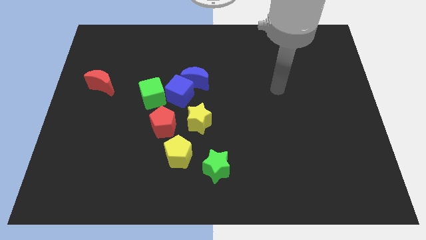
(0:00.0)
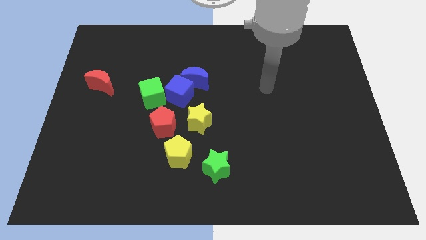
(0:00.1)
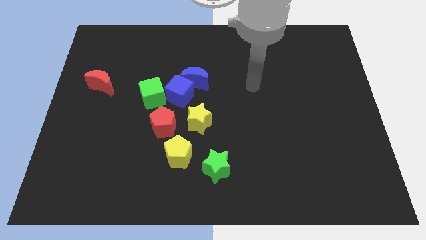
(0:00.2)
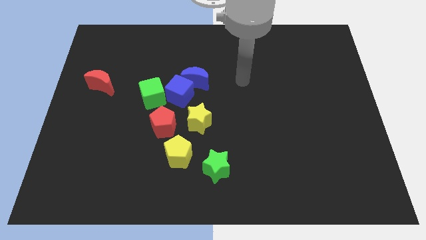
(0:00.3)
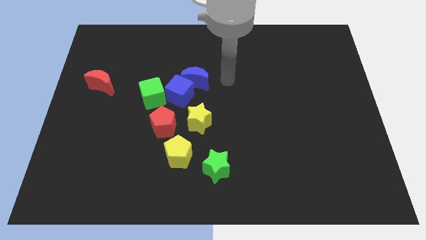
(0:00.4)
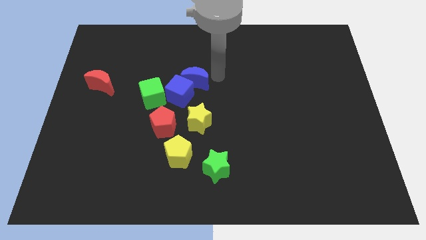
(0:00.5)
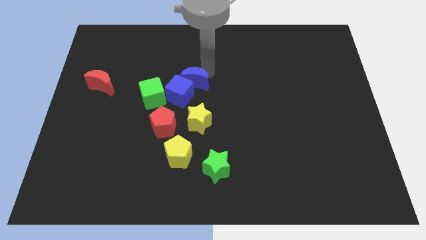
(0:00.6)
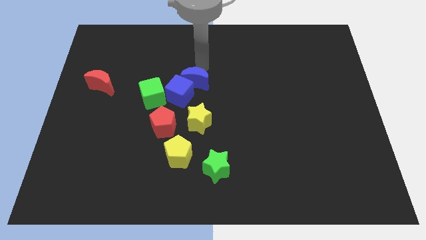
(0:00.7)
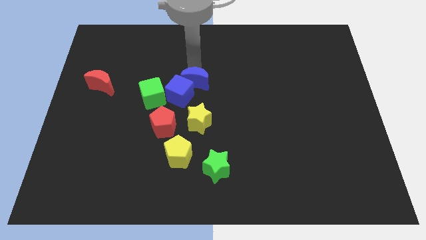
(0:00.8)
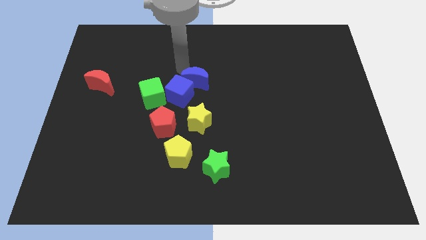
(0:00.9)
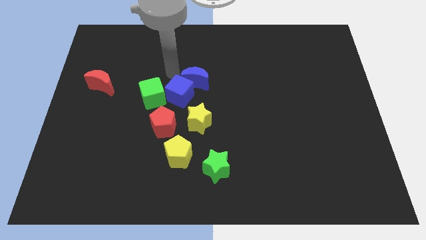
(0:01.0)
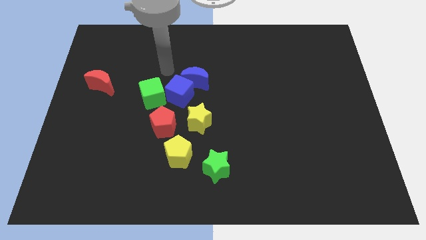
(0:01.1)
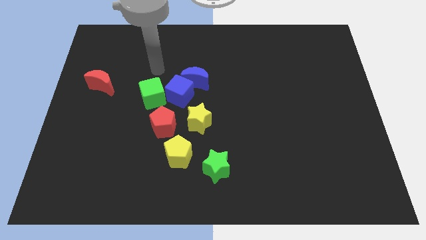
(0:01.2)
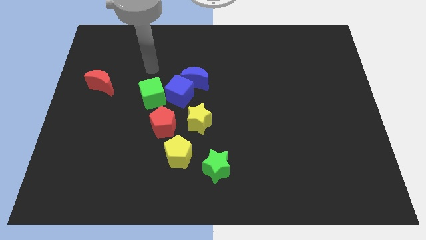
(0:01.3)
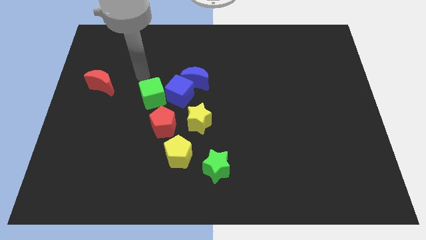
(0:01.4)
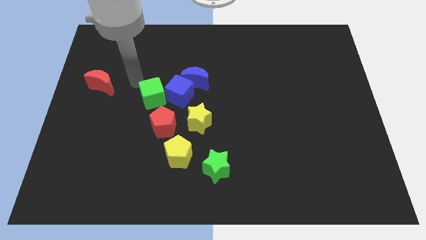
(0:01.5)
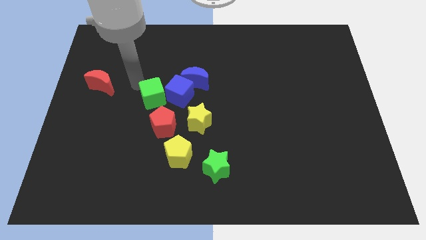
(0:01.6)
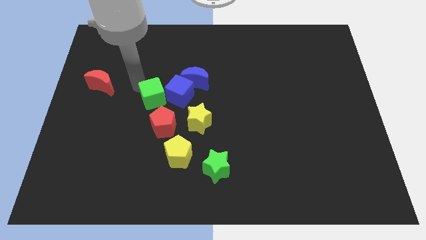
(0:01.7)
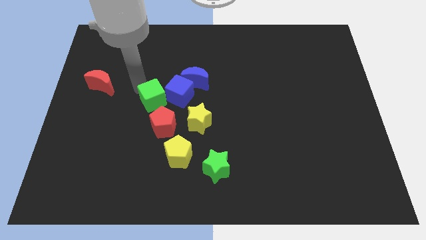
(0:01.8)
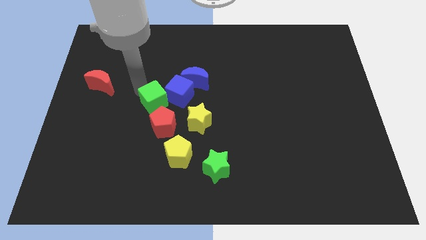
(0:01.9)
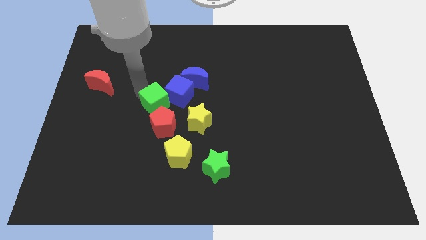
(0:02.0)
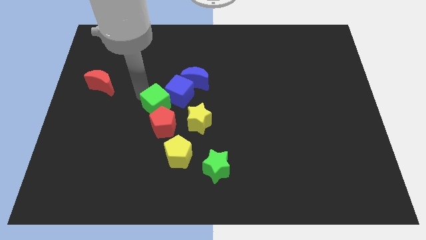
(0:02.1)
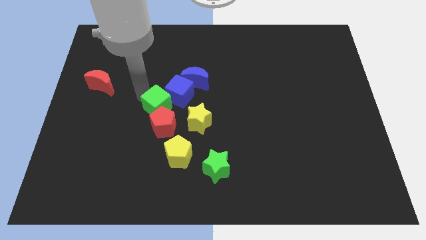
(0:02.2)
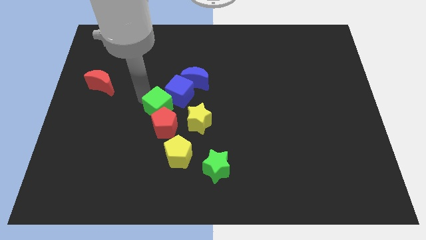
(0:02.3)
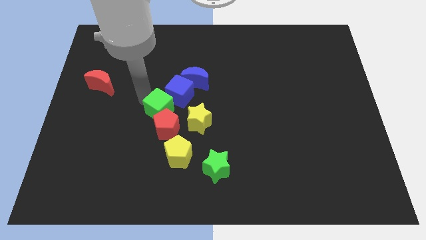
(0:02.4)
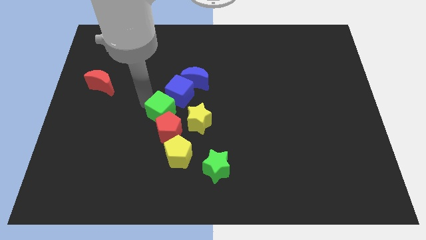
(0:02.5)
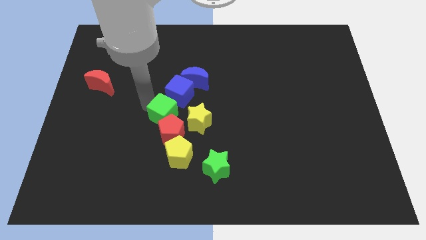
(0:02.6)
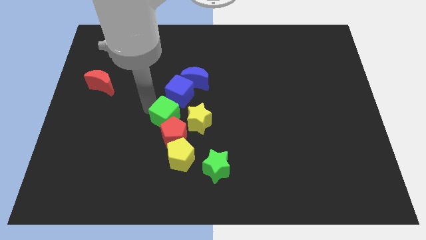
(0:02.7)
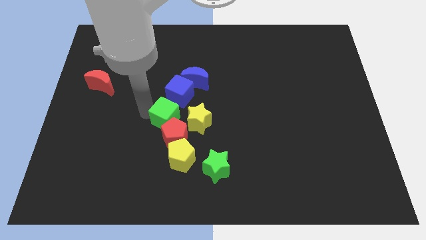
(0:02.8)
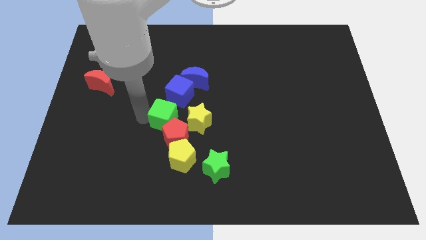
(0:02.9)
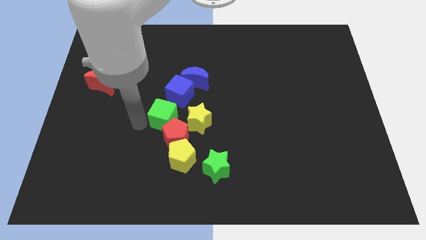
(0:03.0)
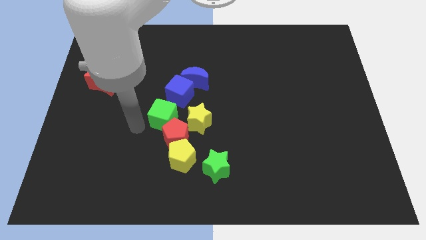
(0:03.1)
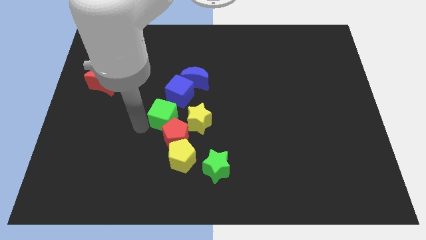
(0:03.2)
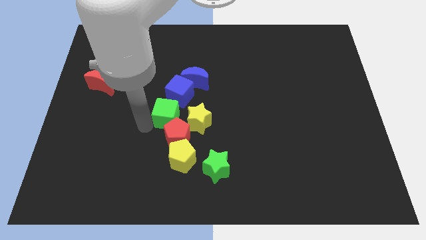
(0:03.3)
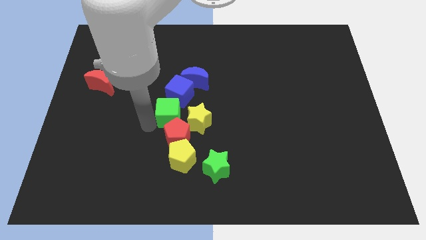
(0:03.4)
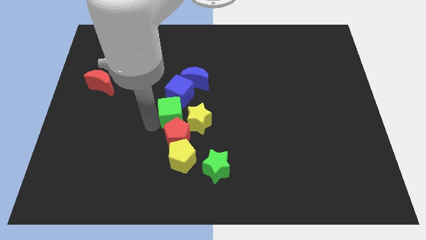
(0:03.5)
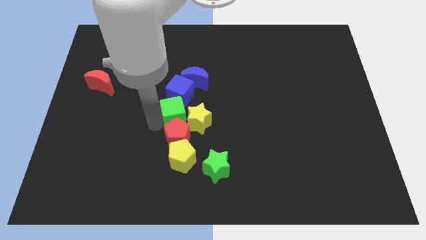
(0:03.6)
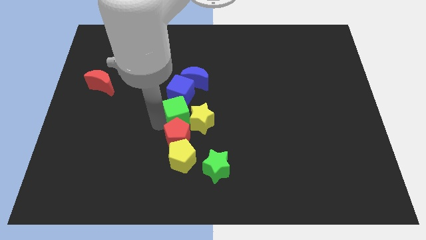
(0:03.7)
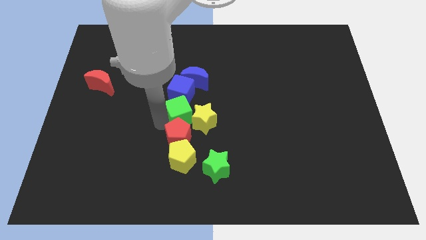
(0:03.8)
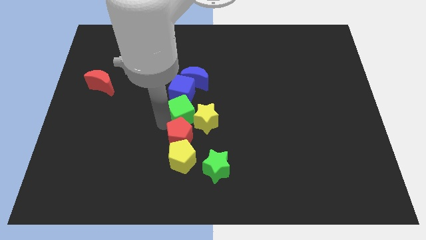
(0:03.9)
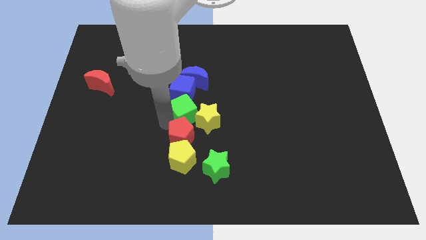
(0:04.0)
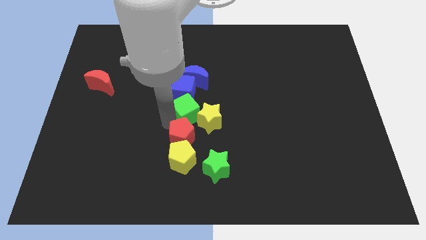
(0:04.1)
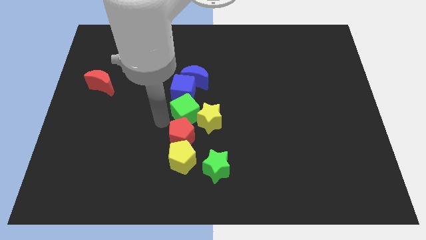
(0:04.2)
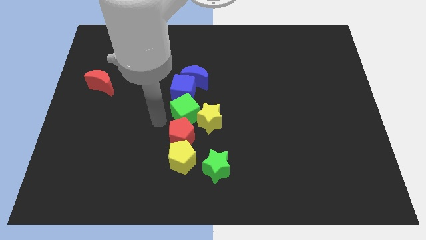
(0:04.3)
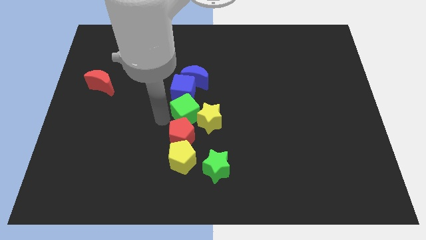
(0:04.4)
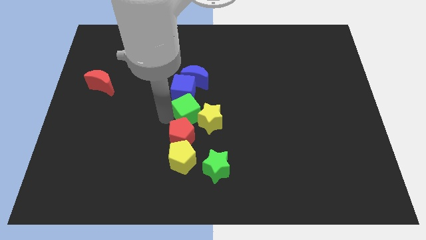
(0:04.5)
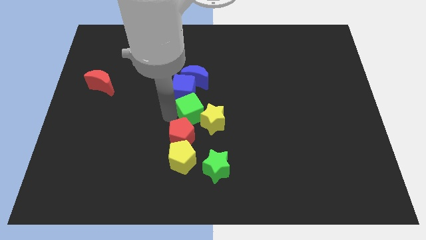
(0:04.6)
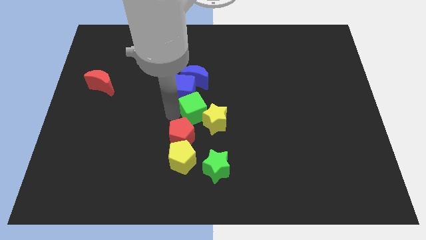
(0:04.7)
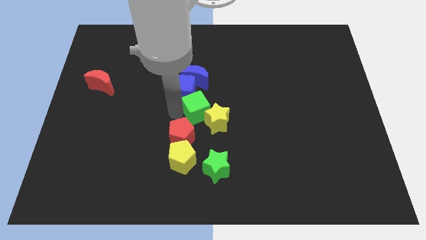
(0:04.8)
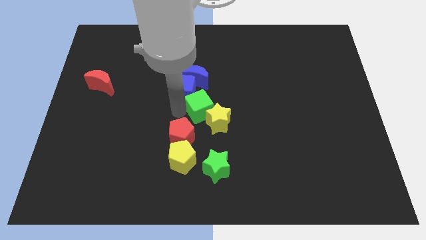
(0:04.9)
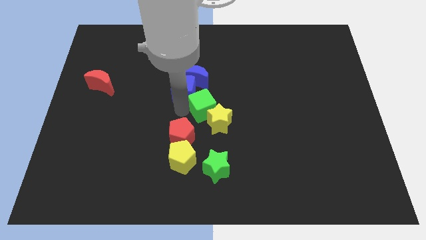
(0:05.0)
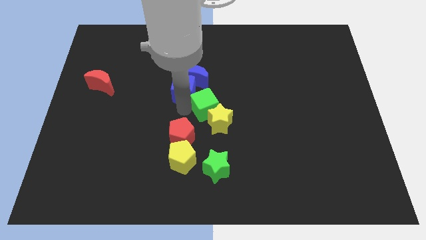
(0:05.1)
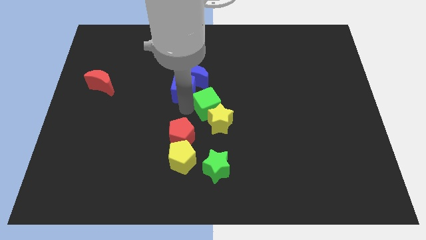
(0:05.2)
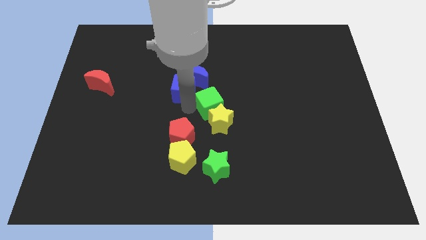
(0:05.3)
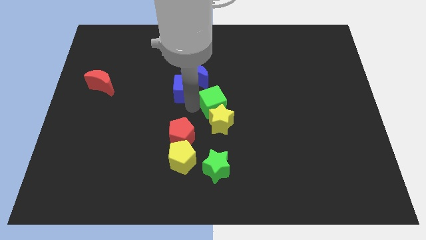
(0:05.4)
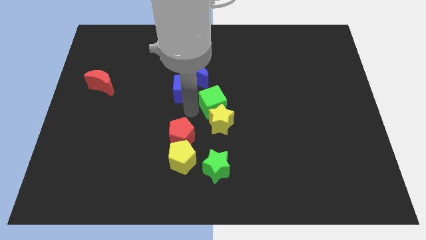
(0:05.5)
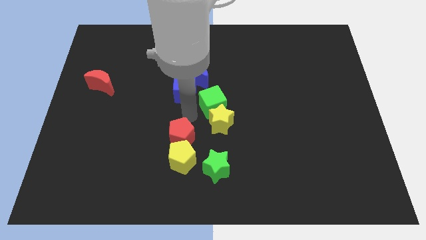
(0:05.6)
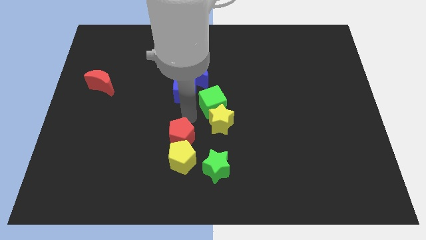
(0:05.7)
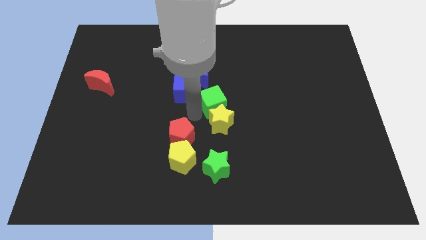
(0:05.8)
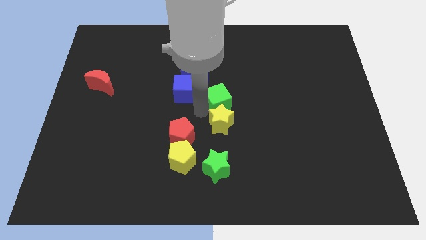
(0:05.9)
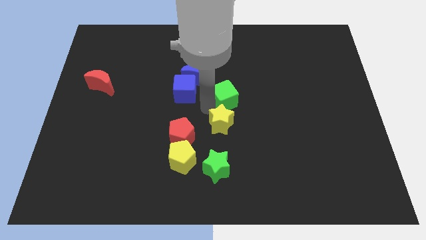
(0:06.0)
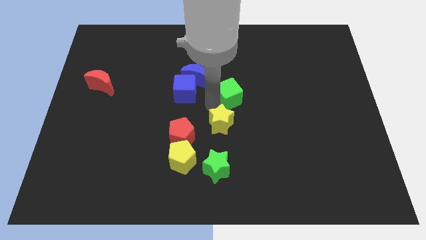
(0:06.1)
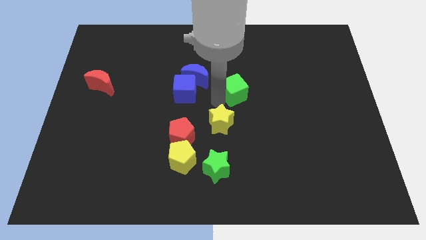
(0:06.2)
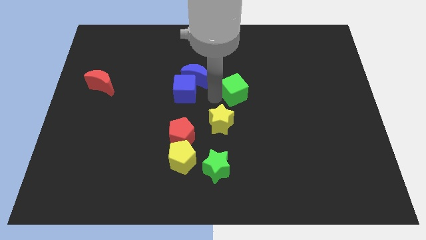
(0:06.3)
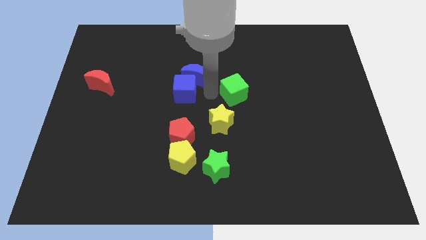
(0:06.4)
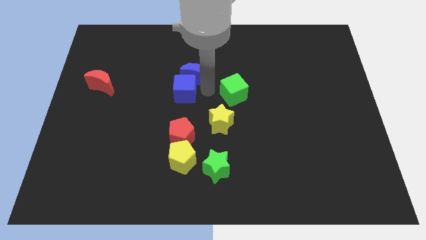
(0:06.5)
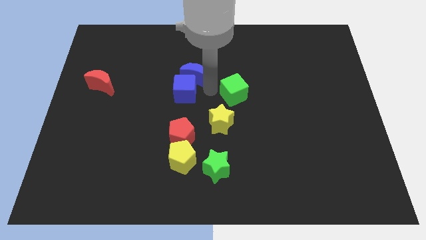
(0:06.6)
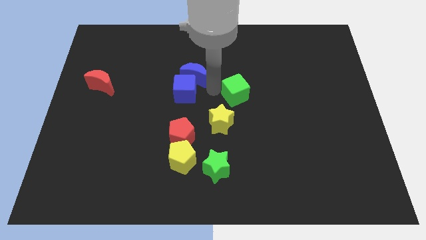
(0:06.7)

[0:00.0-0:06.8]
move the green cube to the right

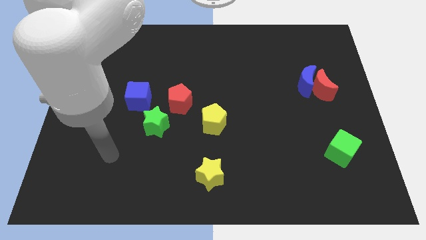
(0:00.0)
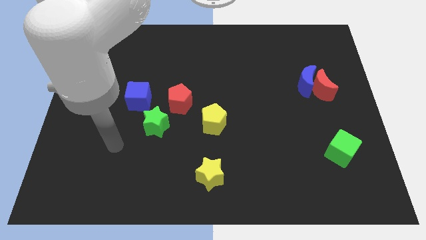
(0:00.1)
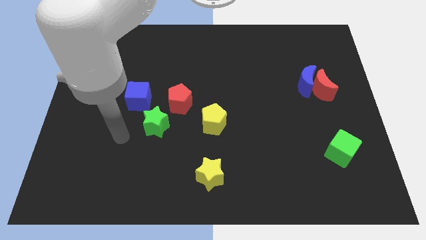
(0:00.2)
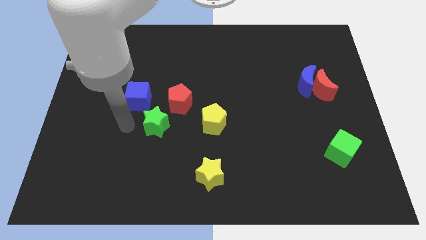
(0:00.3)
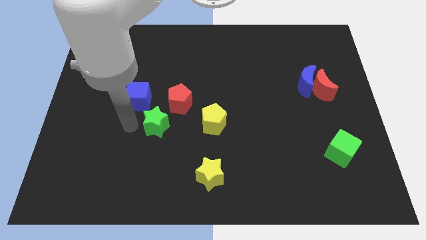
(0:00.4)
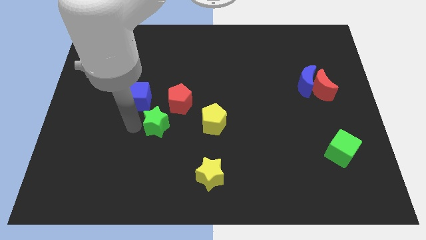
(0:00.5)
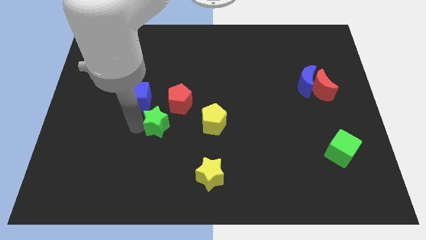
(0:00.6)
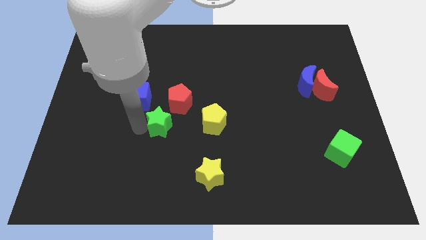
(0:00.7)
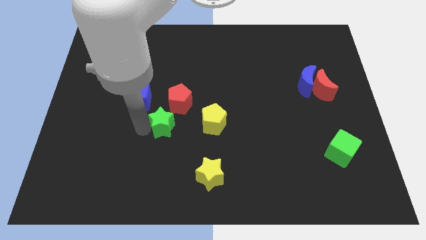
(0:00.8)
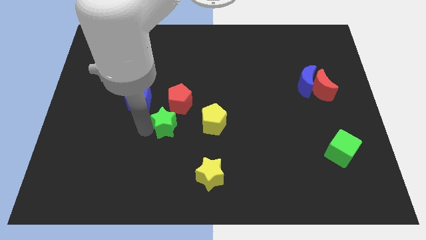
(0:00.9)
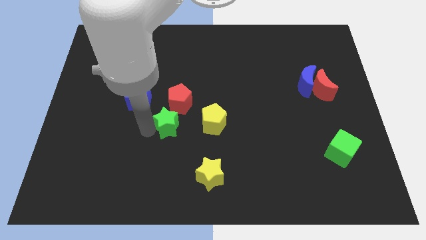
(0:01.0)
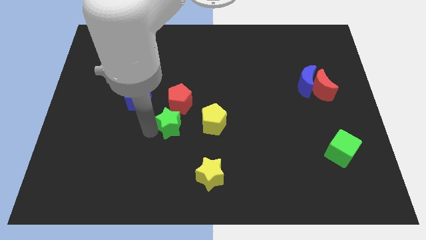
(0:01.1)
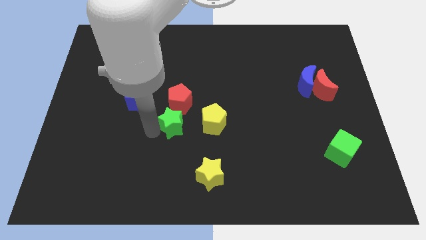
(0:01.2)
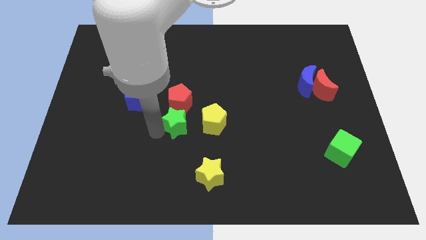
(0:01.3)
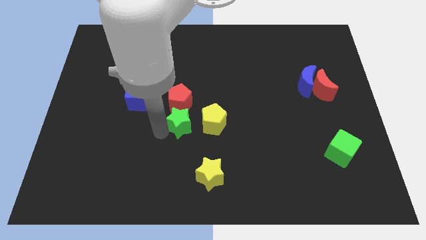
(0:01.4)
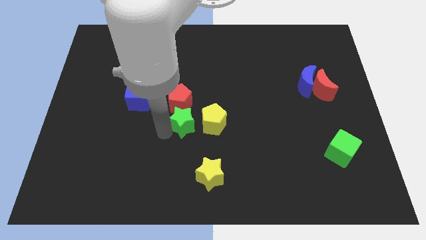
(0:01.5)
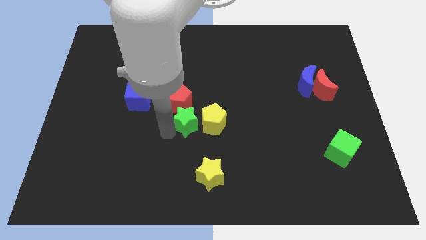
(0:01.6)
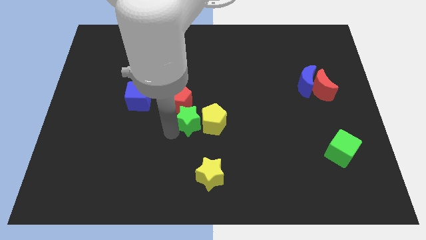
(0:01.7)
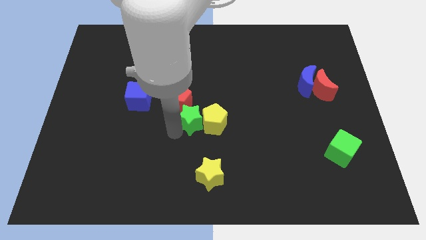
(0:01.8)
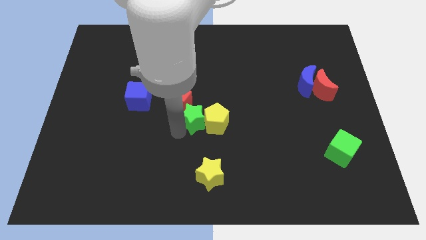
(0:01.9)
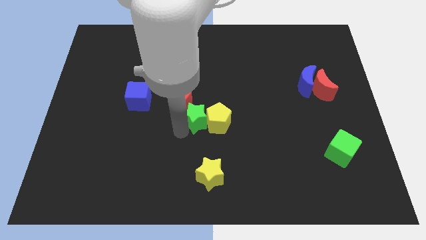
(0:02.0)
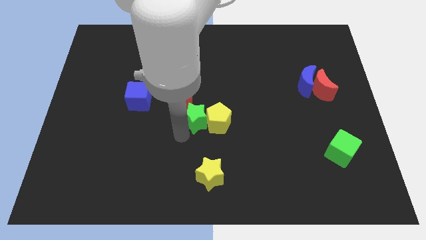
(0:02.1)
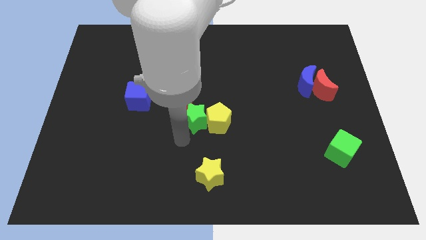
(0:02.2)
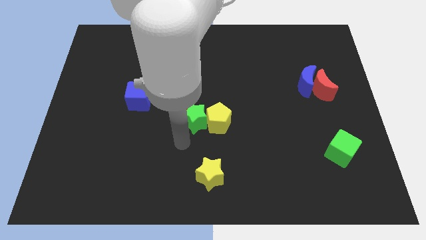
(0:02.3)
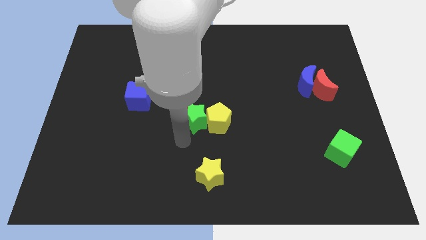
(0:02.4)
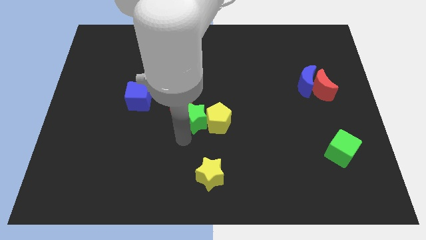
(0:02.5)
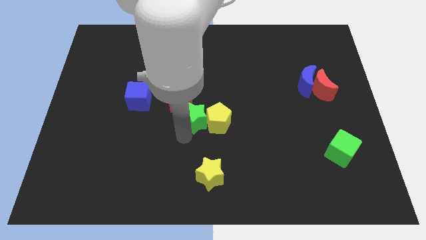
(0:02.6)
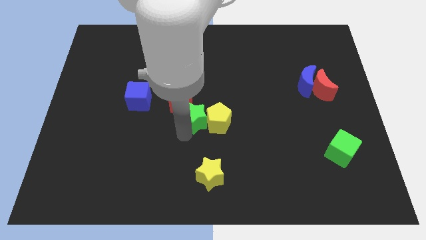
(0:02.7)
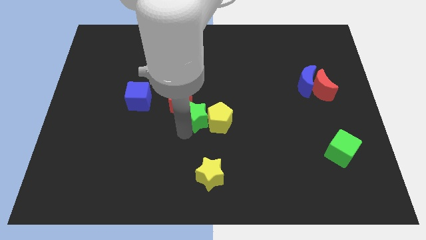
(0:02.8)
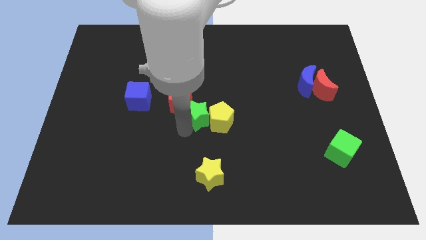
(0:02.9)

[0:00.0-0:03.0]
move the green star upwards and then right a little bit
